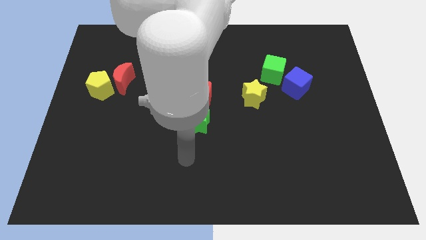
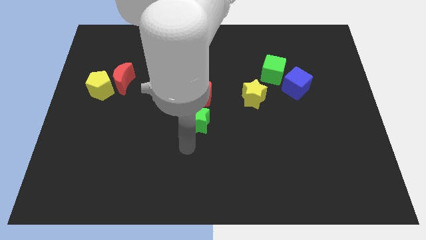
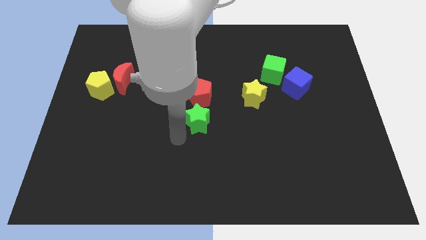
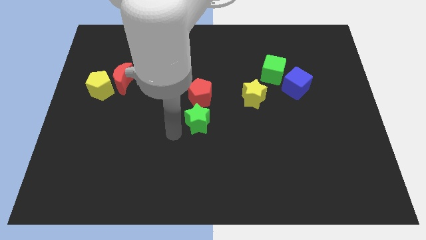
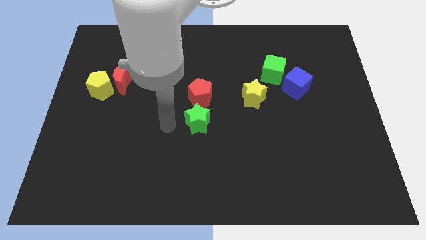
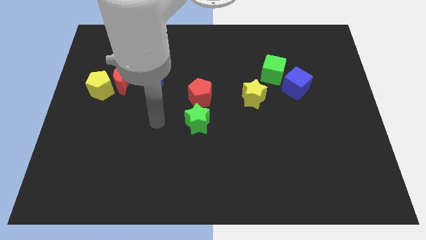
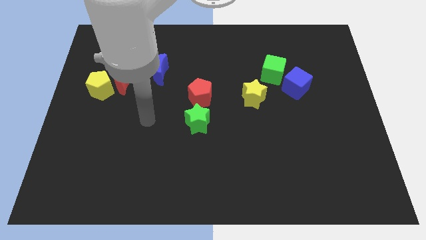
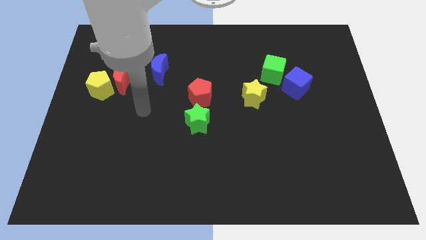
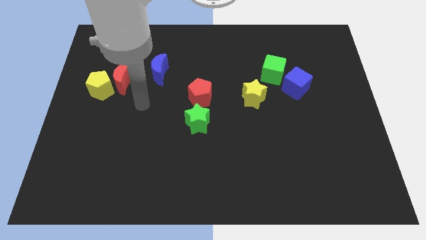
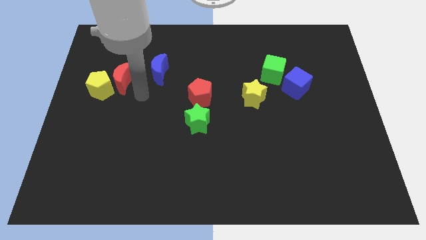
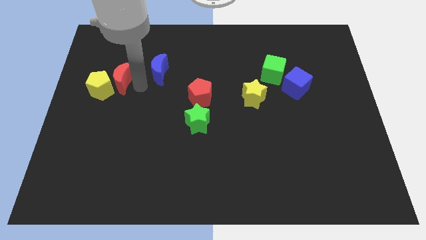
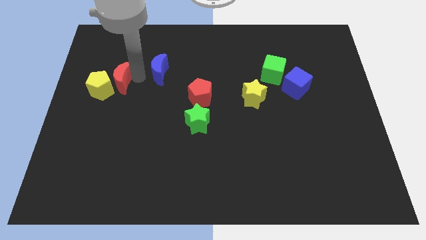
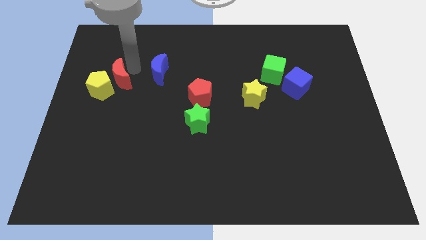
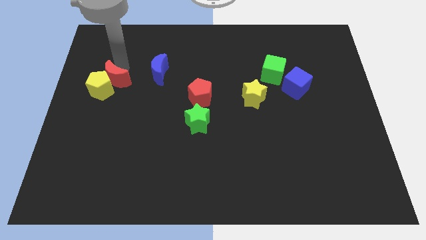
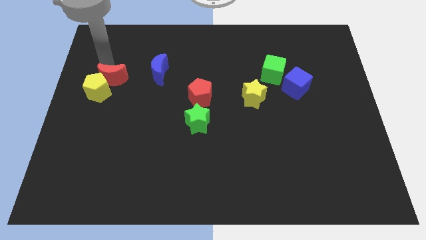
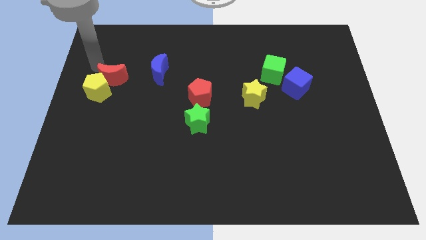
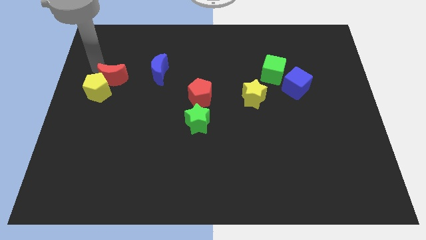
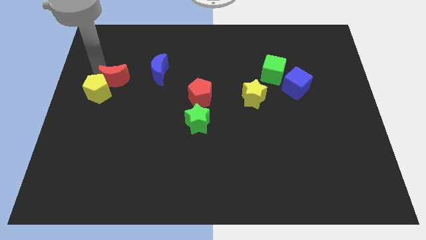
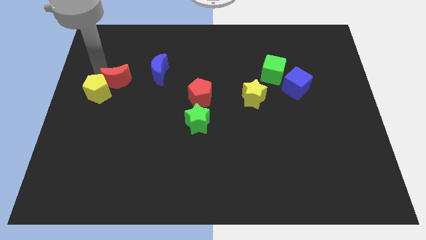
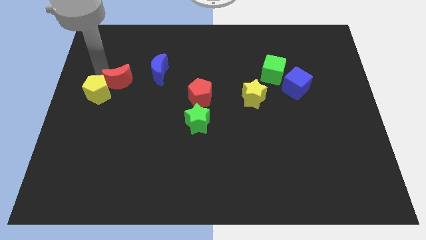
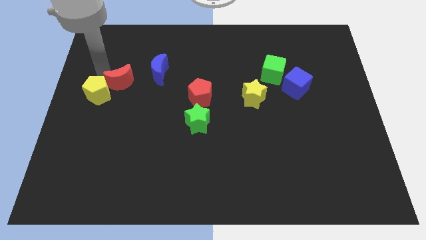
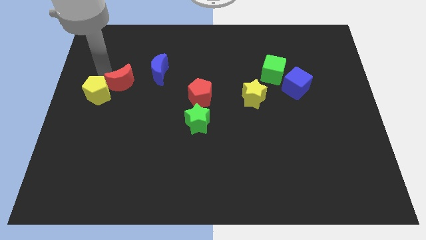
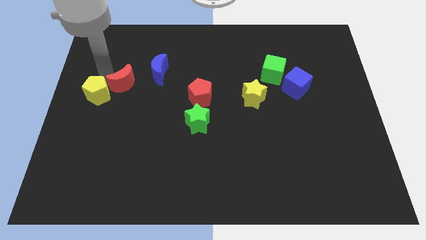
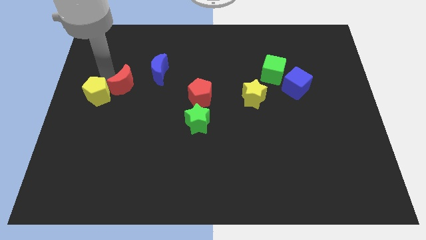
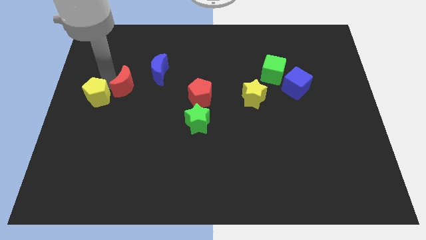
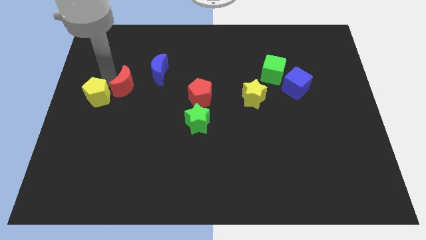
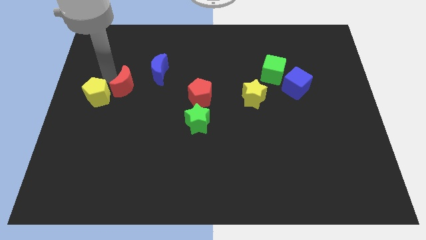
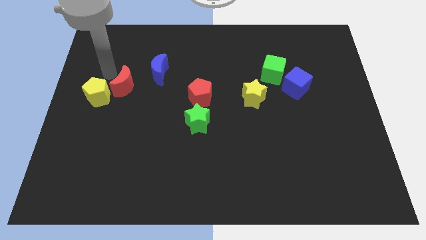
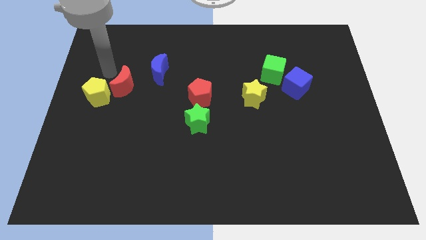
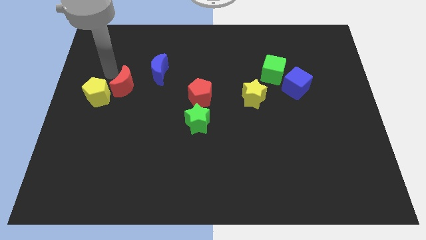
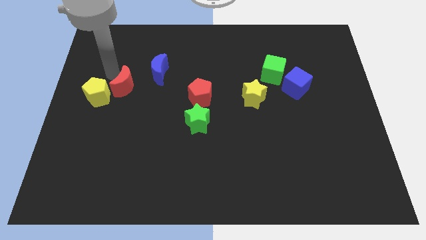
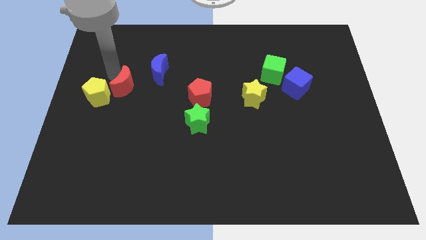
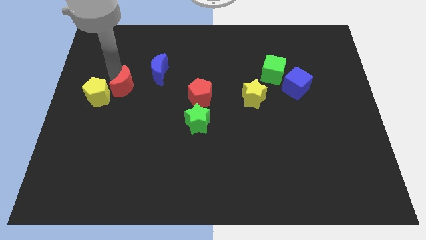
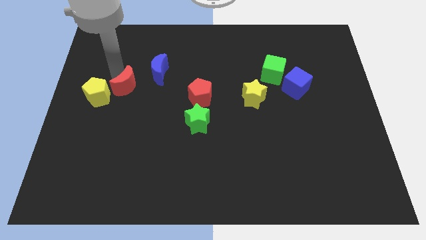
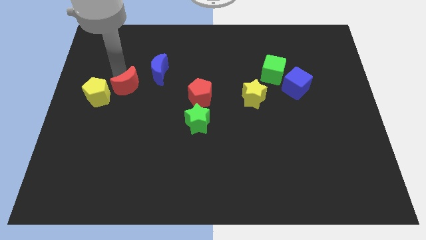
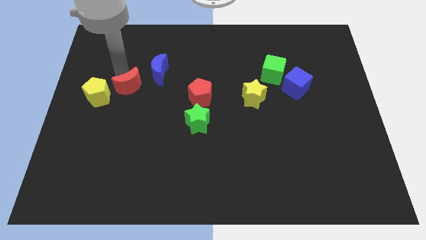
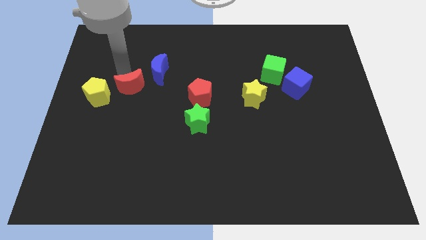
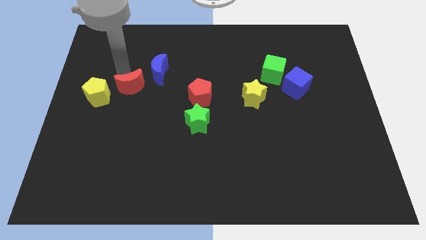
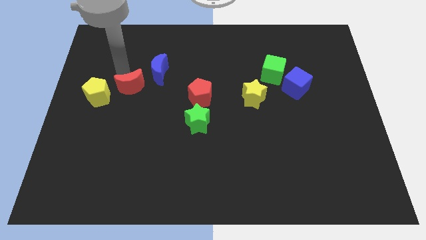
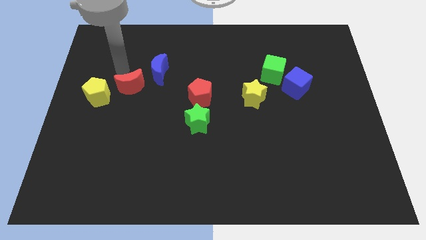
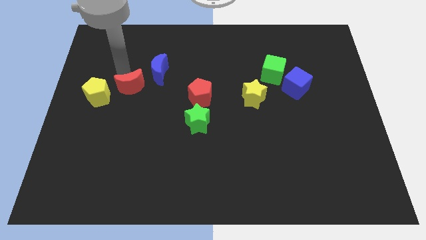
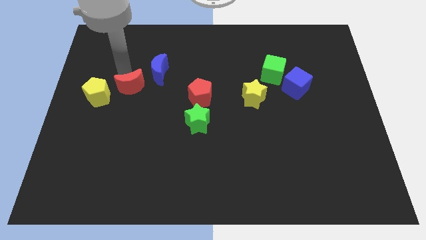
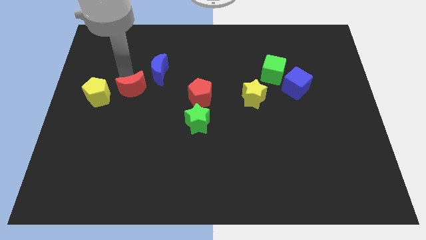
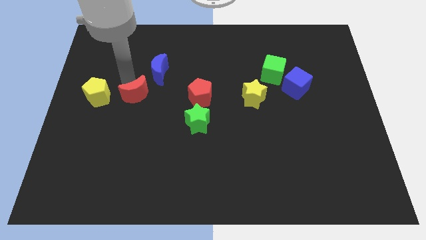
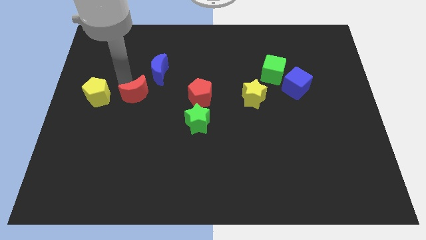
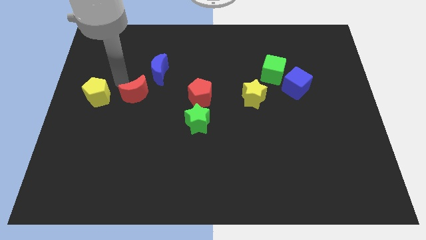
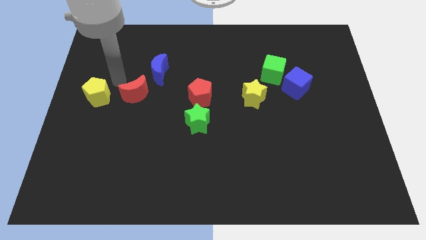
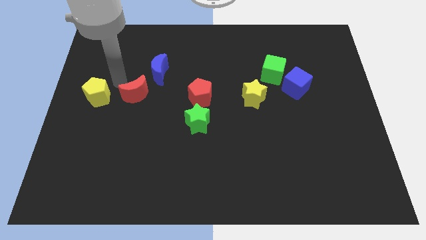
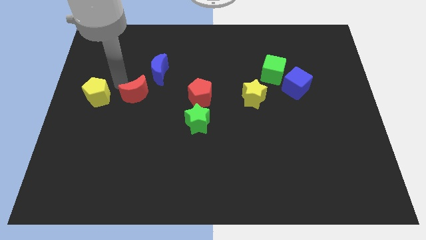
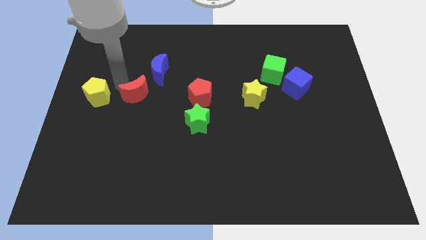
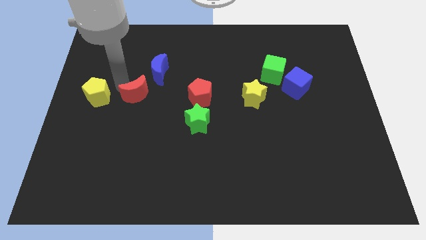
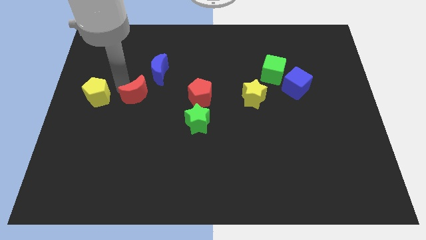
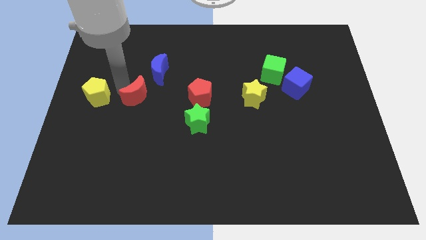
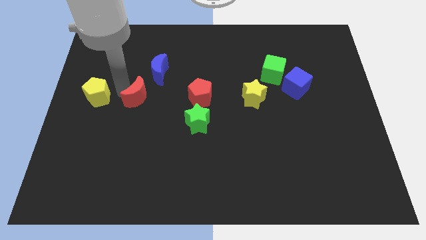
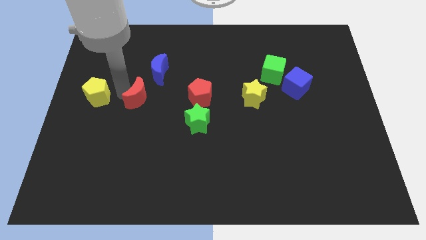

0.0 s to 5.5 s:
slightly move the red moon down and then right

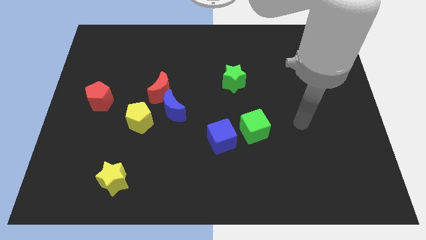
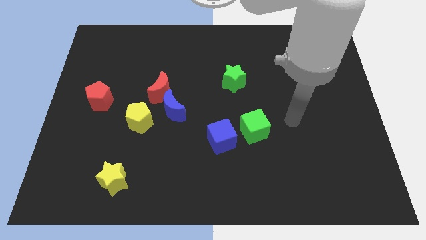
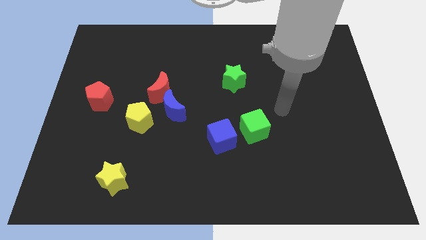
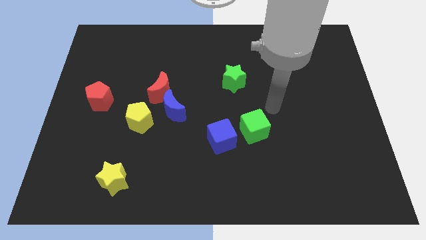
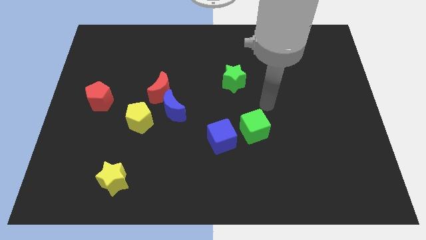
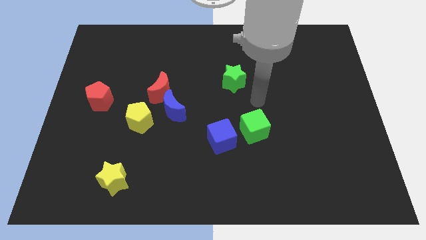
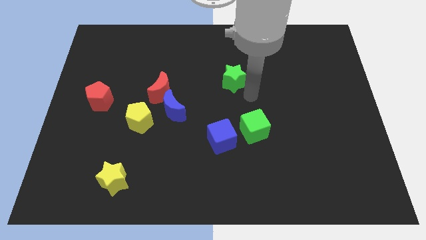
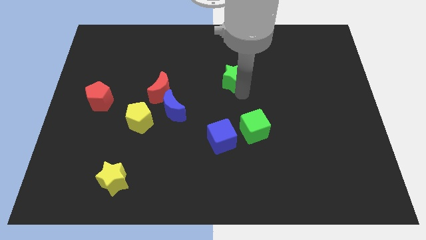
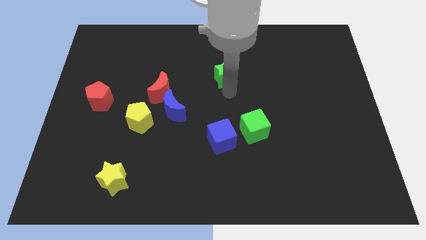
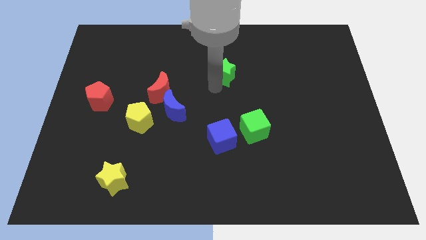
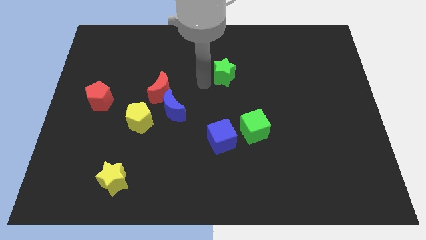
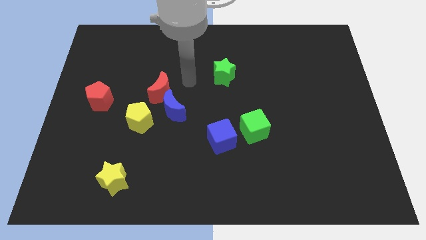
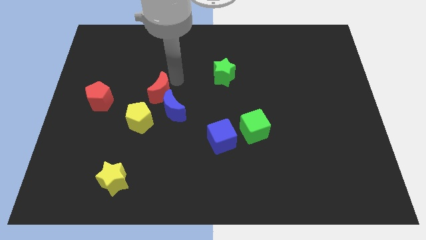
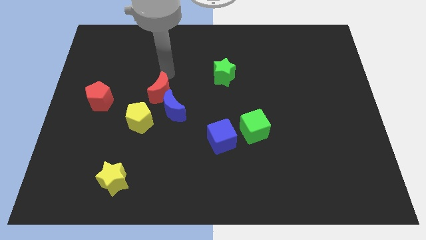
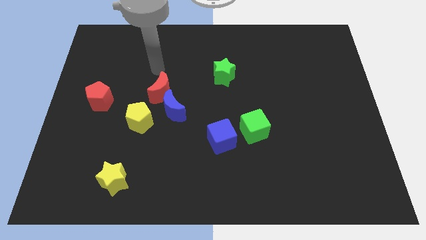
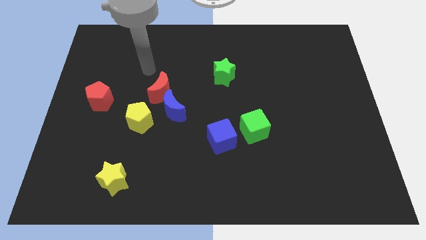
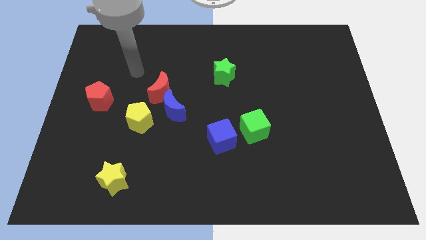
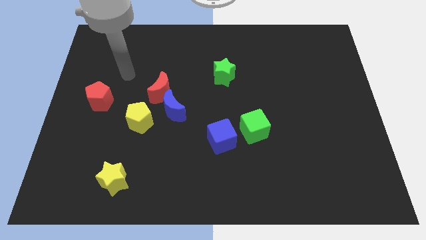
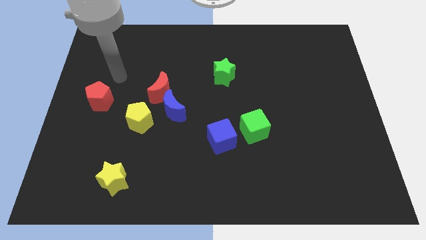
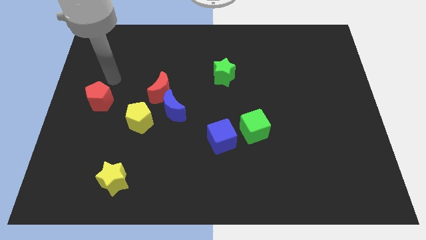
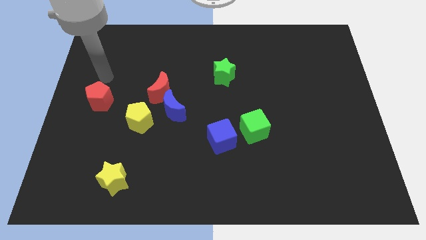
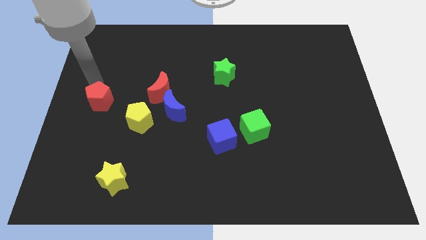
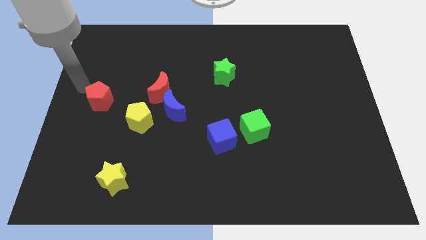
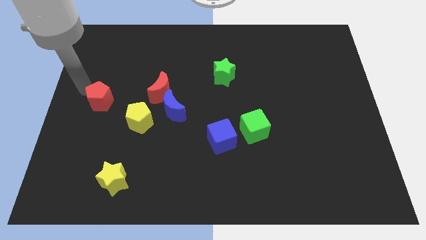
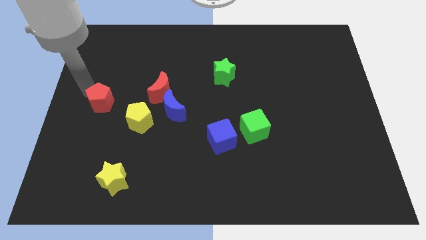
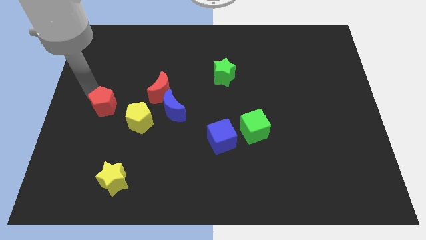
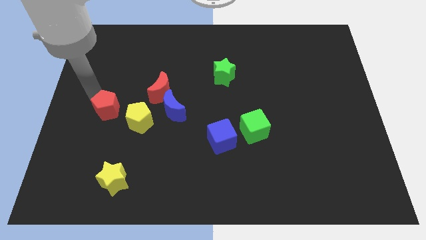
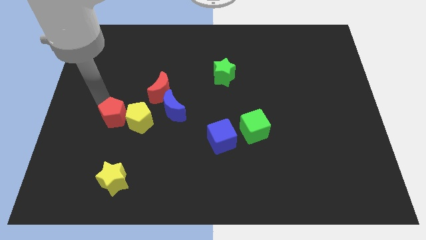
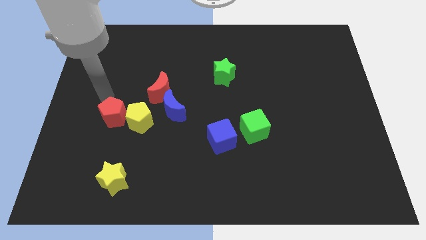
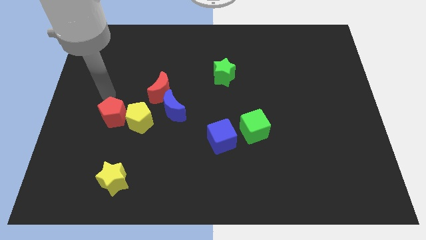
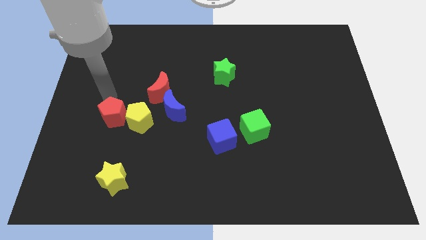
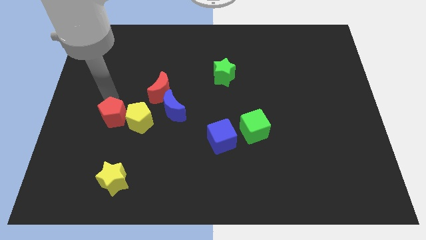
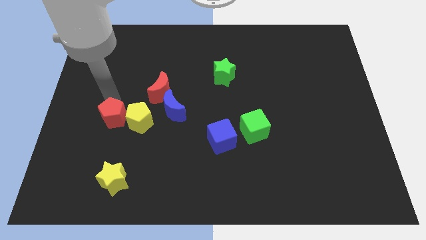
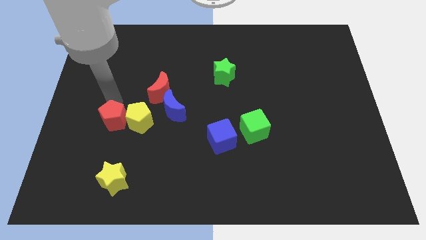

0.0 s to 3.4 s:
slightly push the red pentagon down and to the right diagonally
